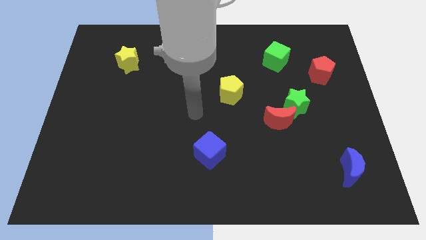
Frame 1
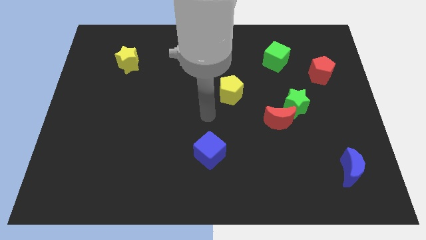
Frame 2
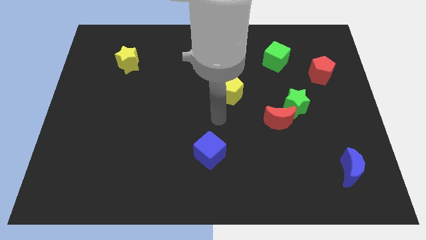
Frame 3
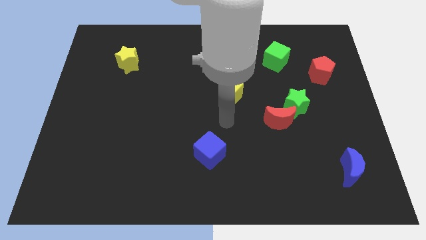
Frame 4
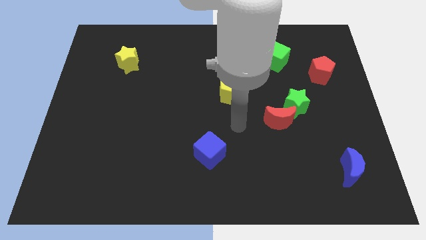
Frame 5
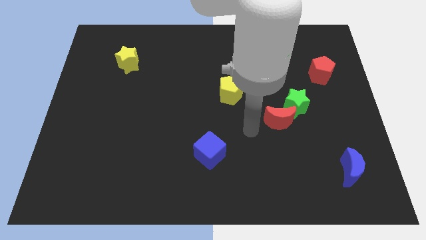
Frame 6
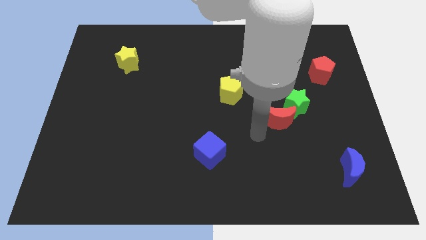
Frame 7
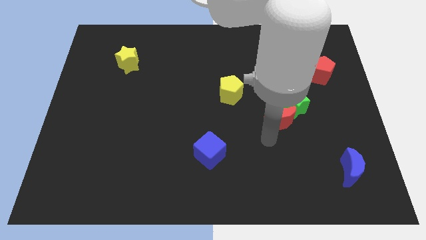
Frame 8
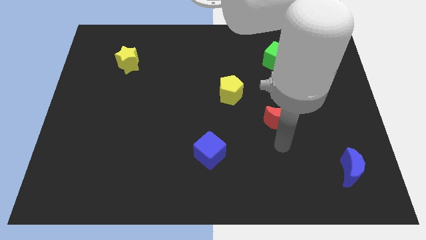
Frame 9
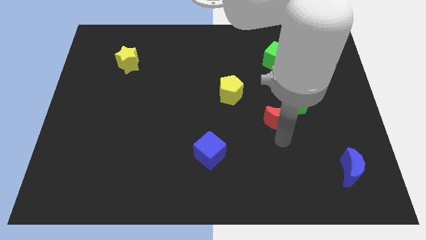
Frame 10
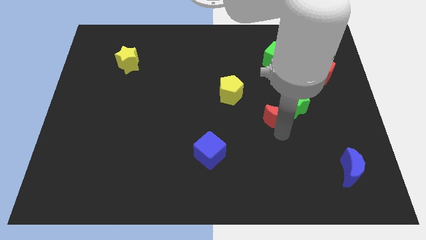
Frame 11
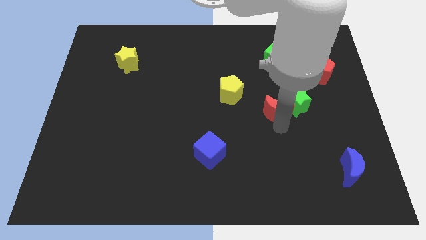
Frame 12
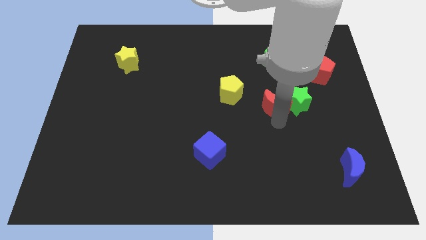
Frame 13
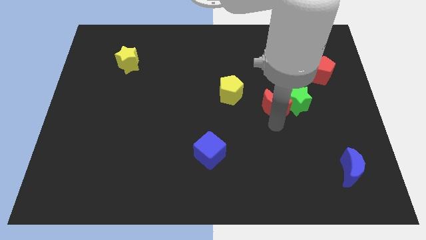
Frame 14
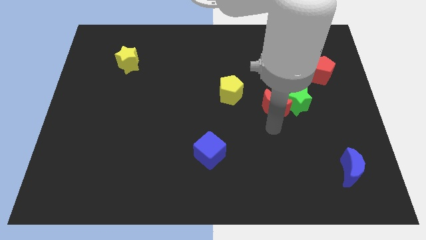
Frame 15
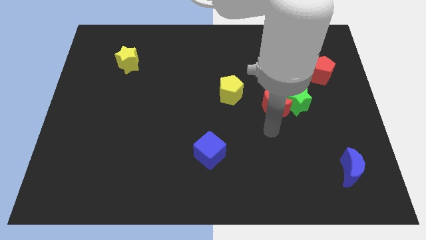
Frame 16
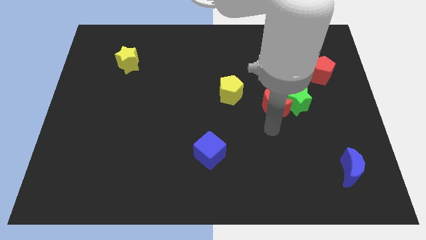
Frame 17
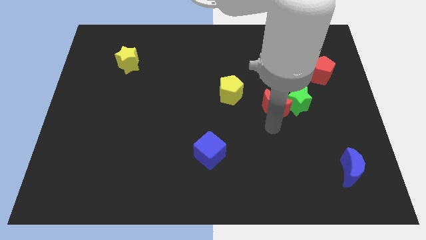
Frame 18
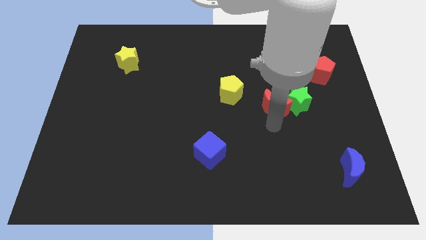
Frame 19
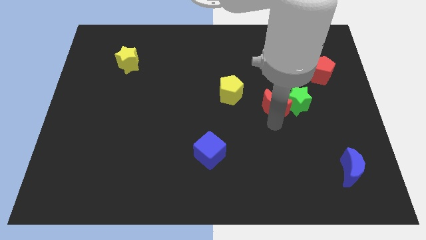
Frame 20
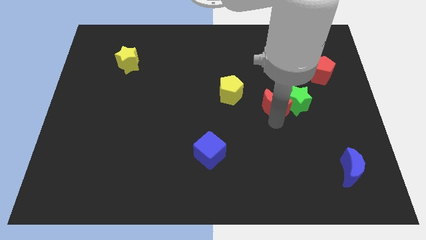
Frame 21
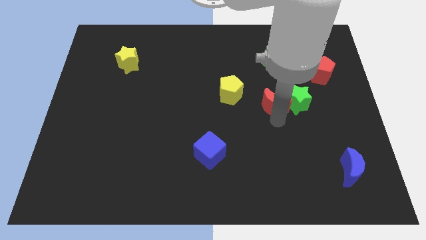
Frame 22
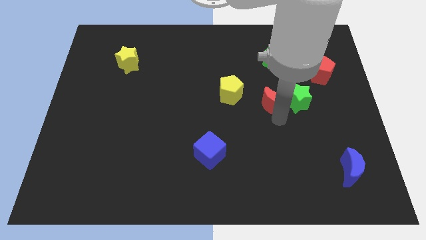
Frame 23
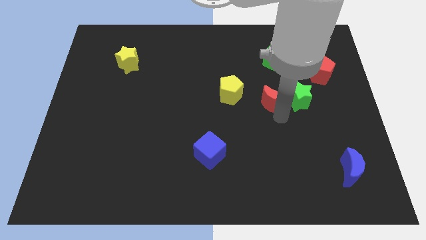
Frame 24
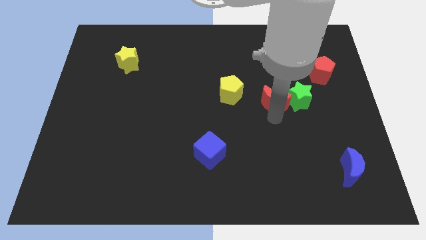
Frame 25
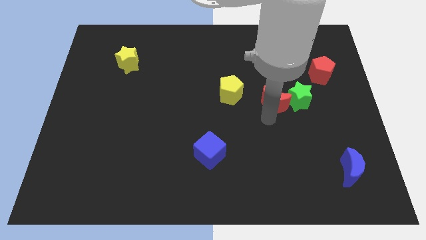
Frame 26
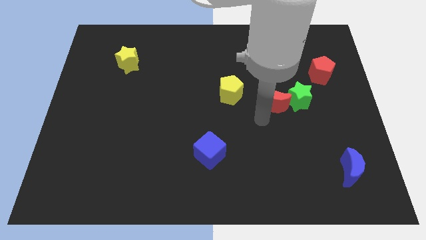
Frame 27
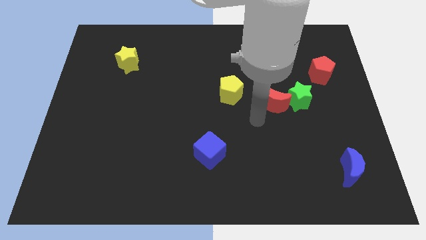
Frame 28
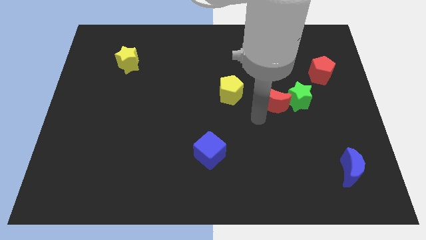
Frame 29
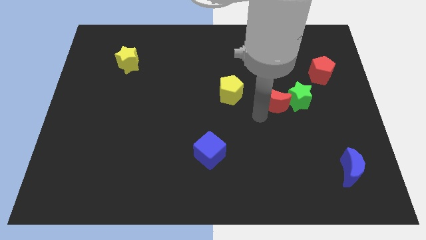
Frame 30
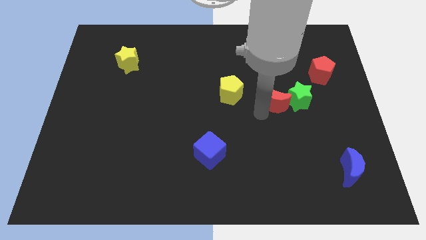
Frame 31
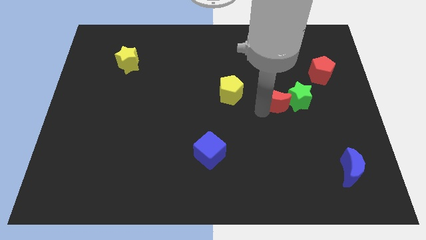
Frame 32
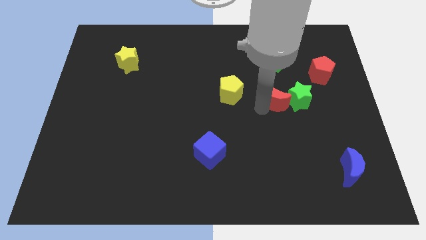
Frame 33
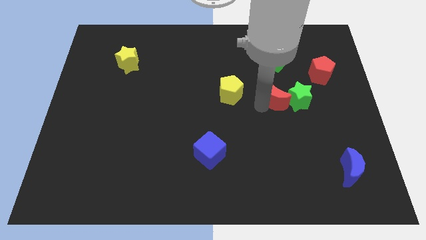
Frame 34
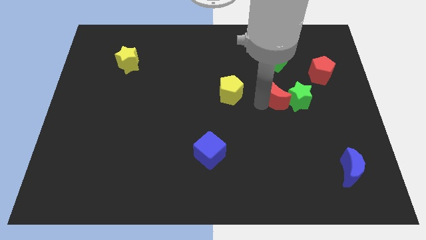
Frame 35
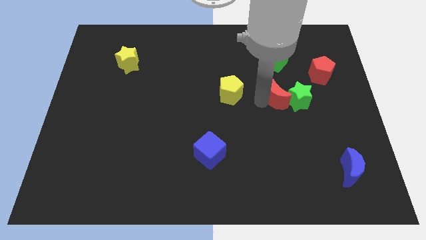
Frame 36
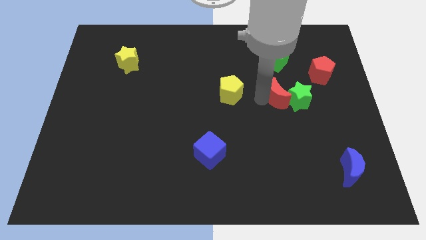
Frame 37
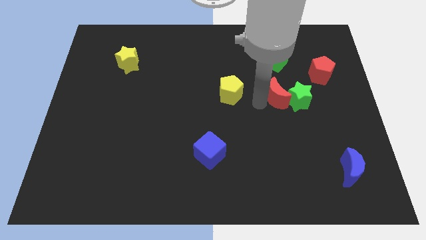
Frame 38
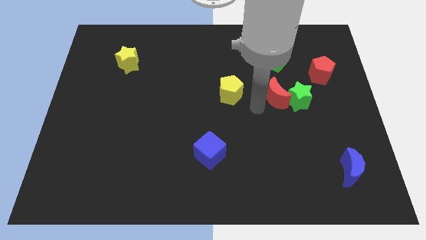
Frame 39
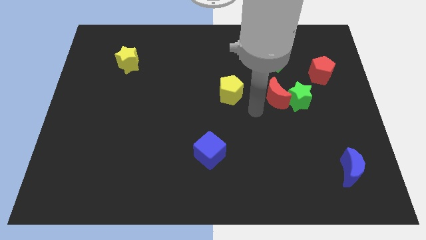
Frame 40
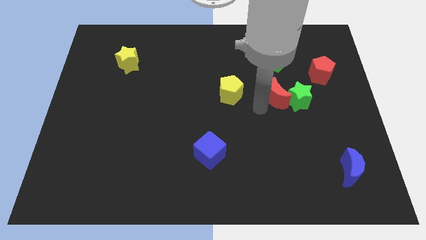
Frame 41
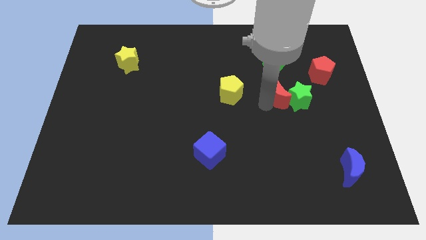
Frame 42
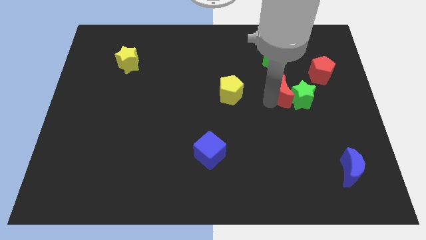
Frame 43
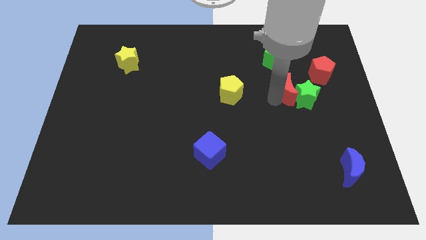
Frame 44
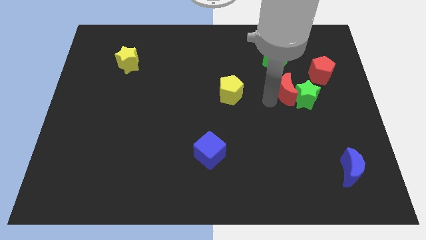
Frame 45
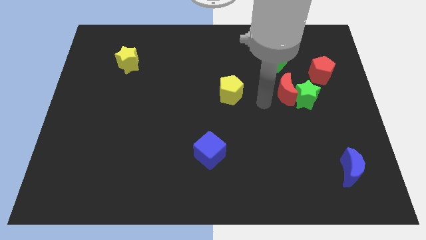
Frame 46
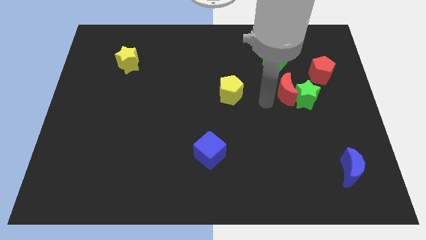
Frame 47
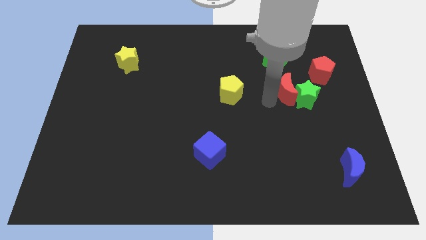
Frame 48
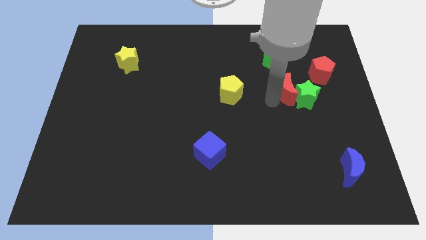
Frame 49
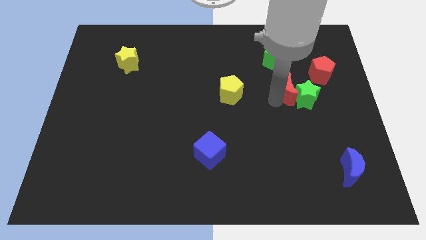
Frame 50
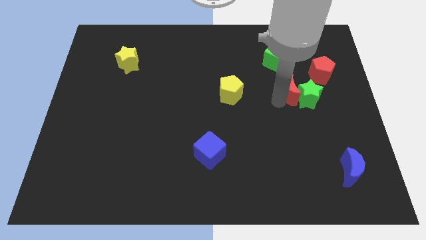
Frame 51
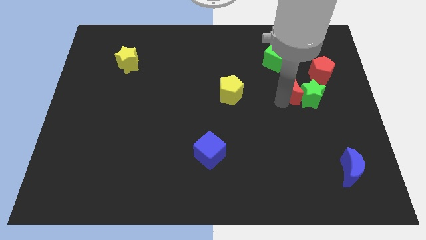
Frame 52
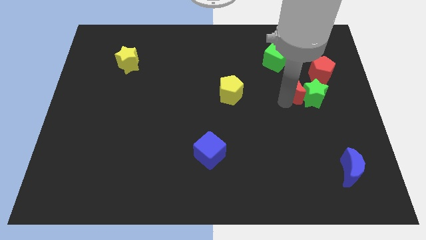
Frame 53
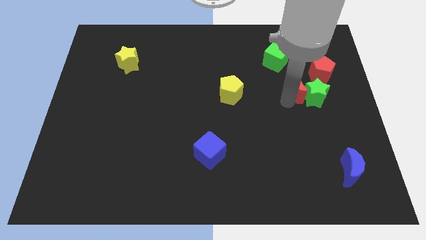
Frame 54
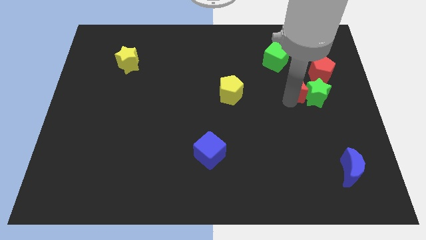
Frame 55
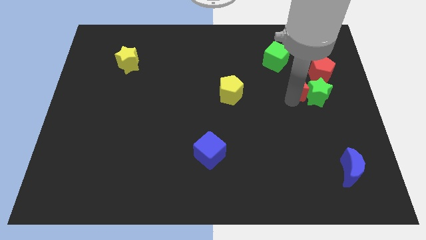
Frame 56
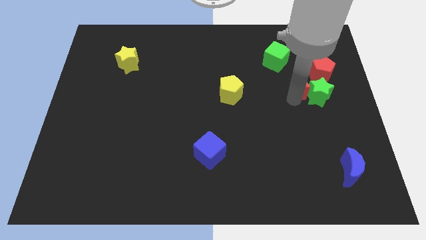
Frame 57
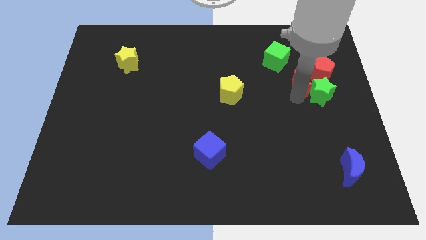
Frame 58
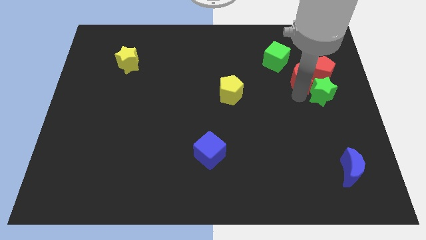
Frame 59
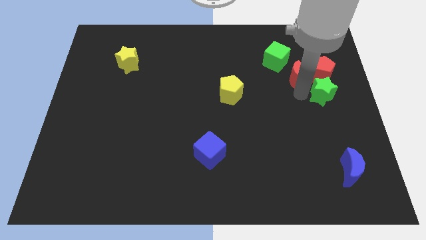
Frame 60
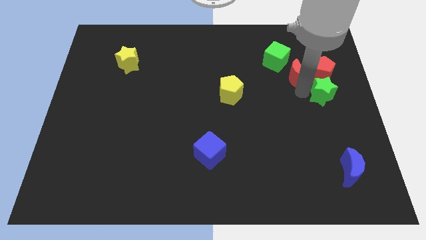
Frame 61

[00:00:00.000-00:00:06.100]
slide the red moon close to the red pentagon

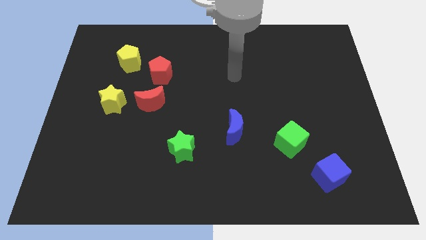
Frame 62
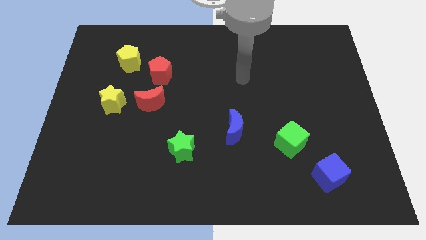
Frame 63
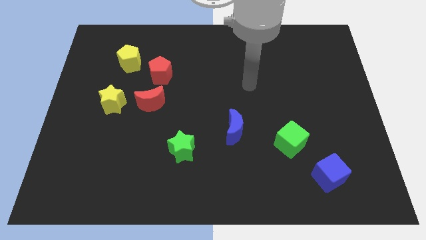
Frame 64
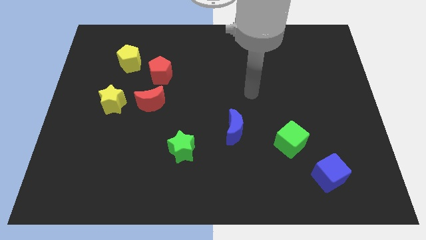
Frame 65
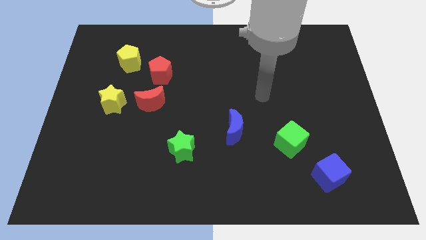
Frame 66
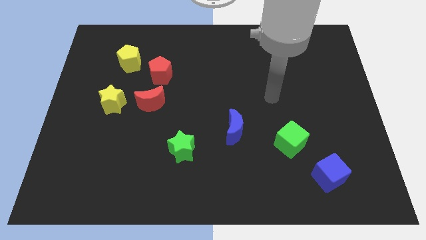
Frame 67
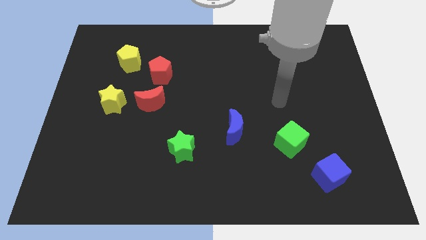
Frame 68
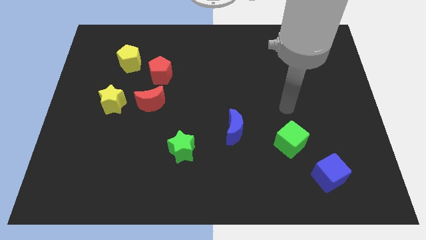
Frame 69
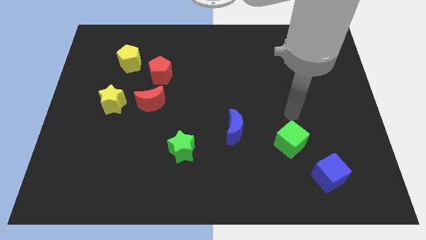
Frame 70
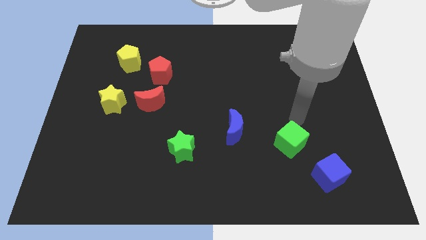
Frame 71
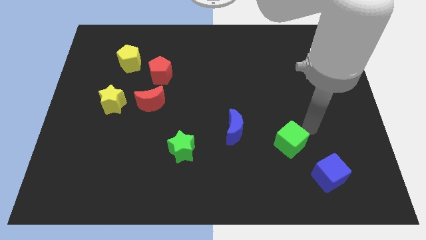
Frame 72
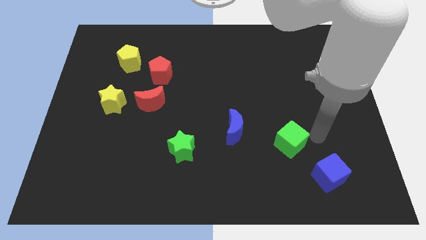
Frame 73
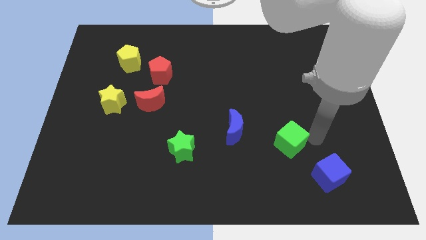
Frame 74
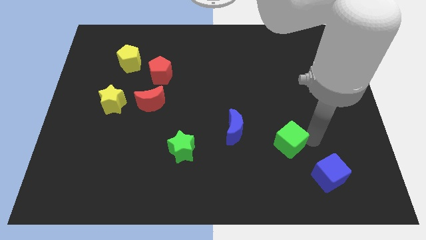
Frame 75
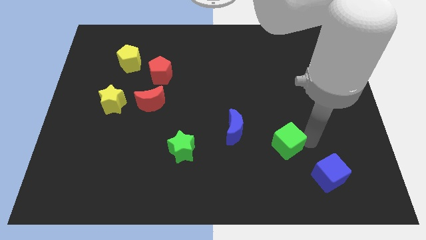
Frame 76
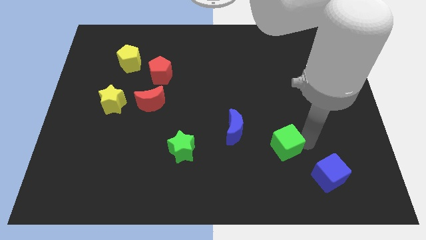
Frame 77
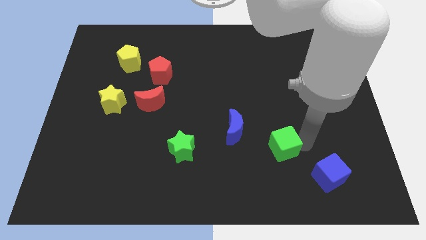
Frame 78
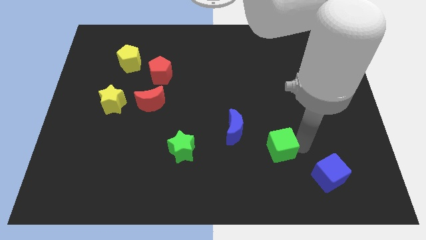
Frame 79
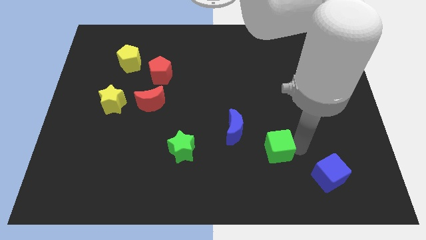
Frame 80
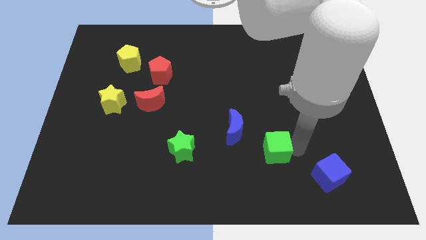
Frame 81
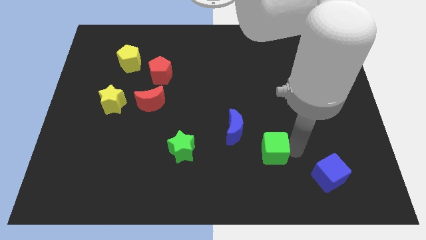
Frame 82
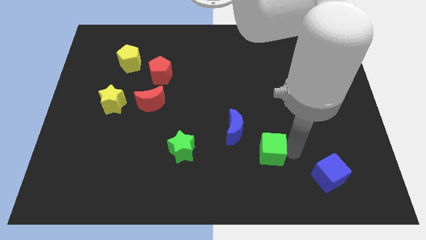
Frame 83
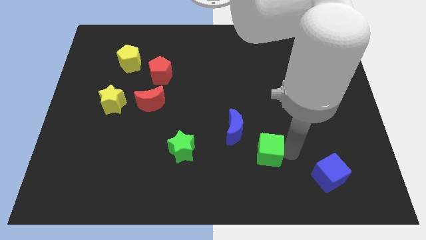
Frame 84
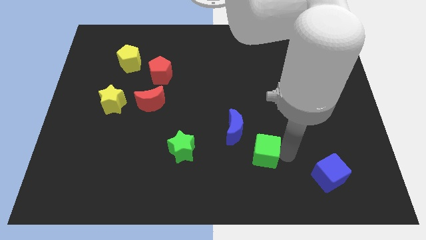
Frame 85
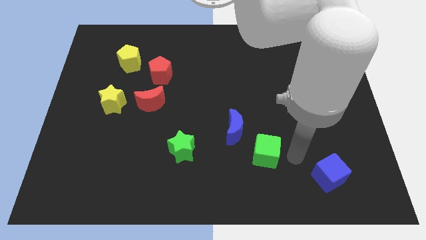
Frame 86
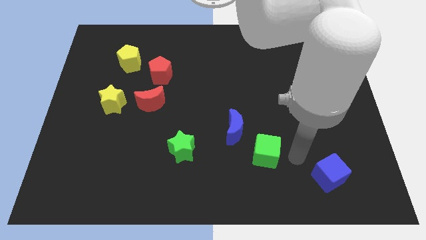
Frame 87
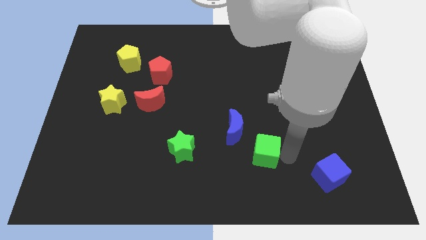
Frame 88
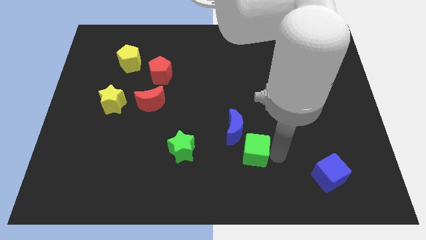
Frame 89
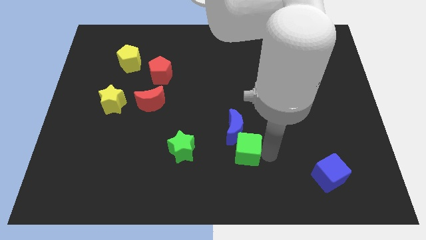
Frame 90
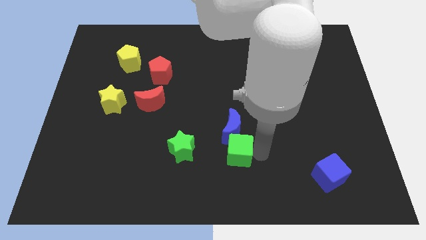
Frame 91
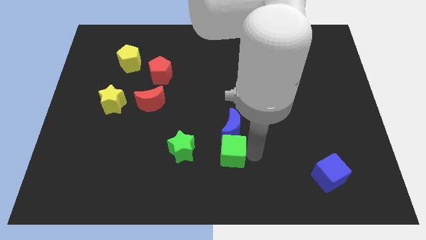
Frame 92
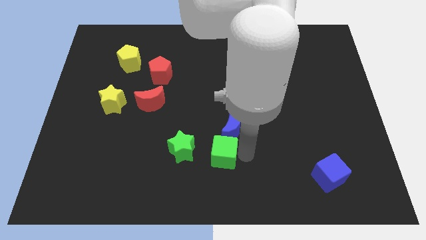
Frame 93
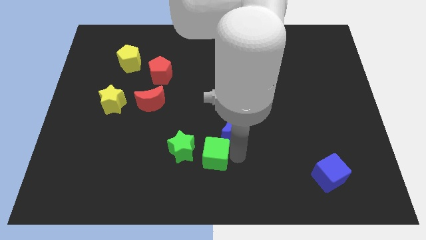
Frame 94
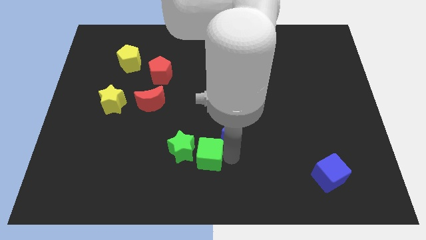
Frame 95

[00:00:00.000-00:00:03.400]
slide the green cube close to the green star
